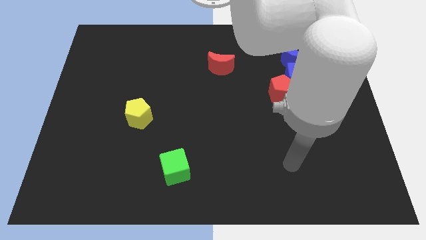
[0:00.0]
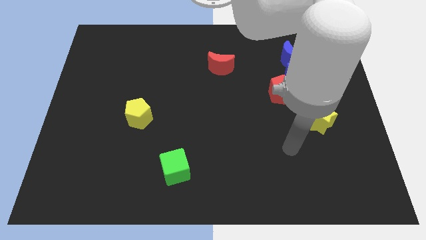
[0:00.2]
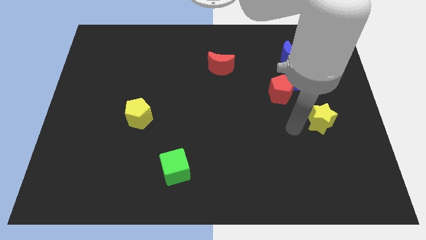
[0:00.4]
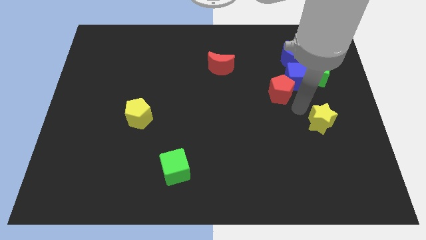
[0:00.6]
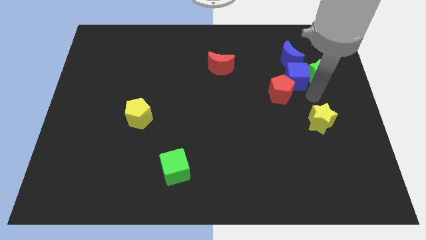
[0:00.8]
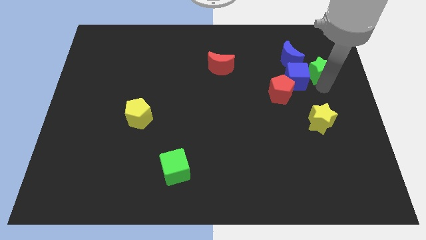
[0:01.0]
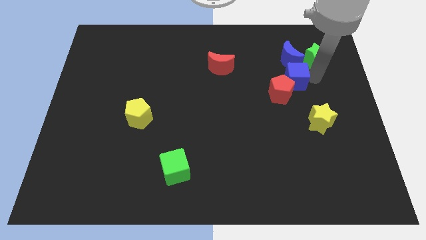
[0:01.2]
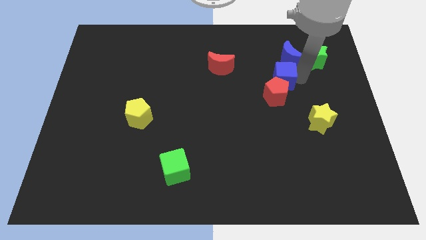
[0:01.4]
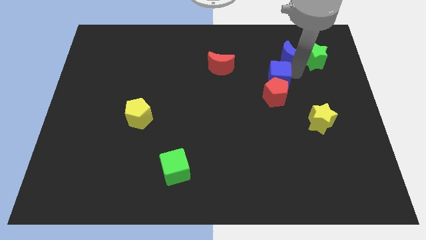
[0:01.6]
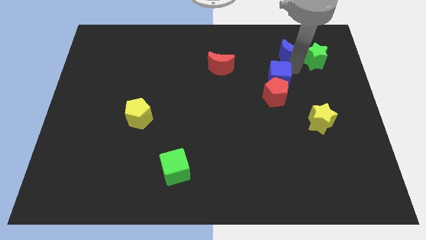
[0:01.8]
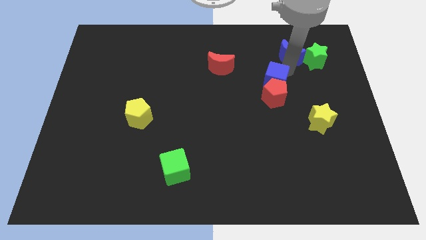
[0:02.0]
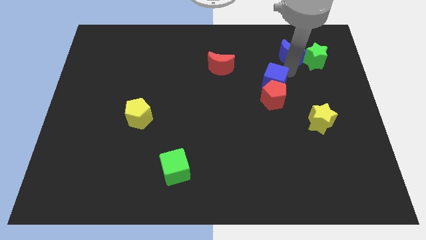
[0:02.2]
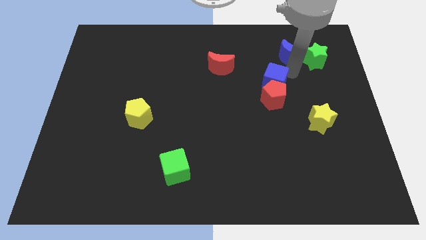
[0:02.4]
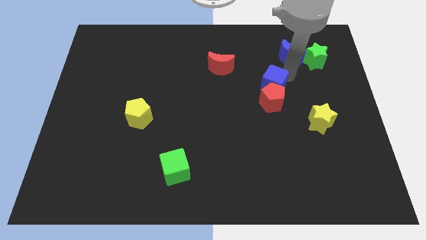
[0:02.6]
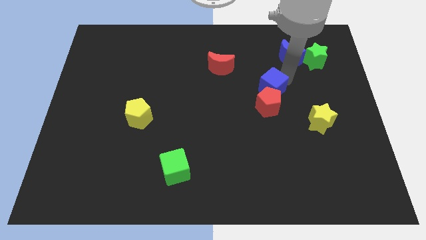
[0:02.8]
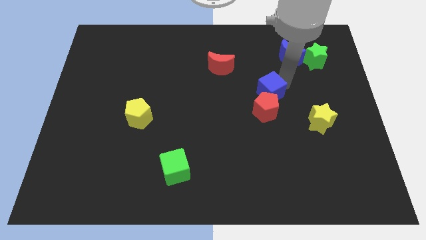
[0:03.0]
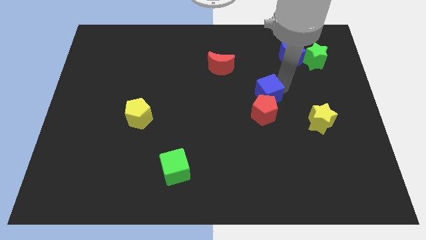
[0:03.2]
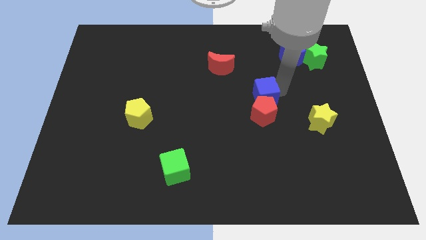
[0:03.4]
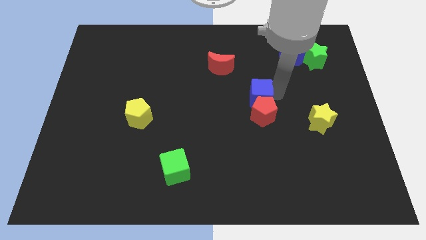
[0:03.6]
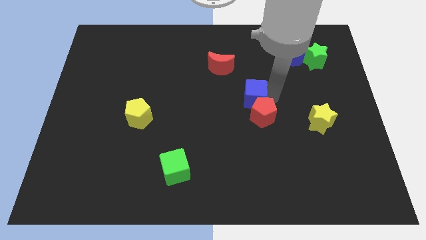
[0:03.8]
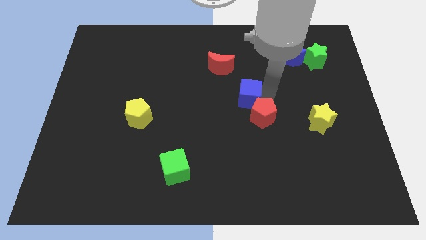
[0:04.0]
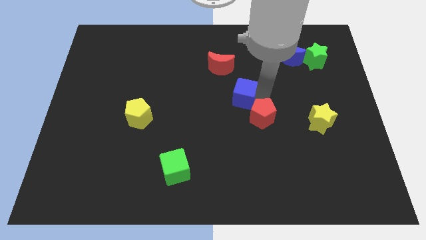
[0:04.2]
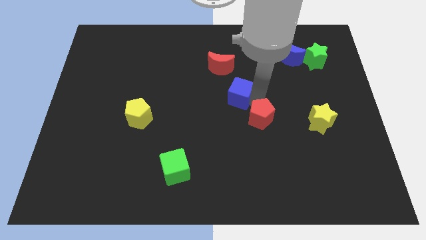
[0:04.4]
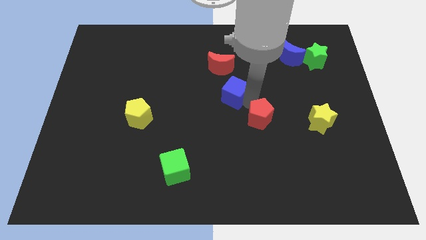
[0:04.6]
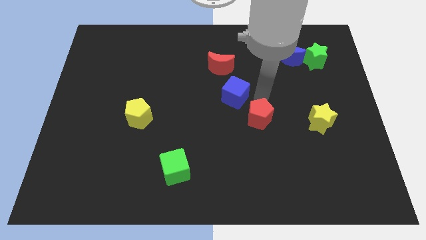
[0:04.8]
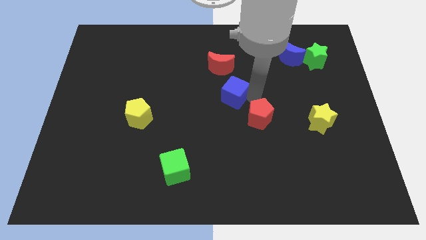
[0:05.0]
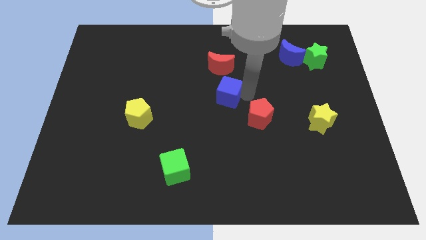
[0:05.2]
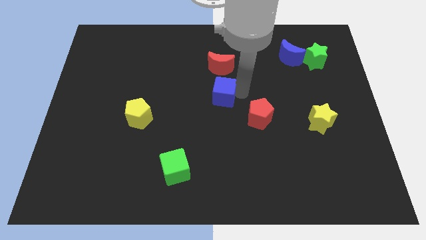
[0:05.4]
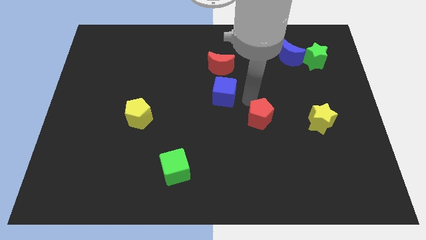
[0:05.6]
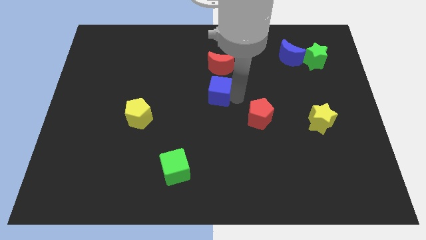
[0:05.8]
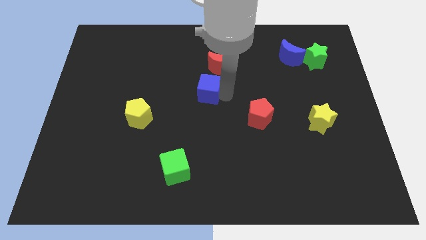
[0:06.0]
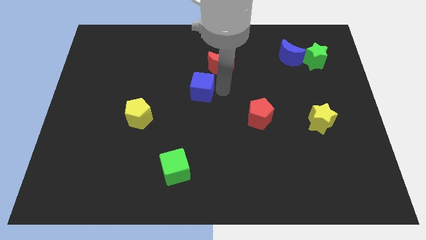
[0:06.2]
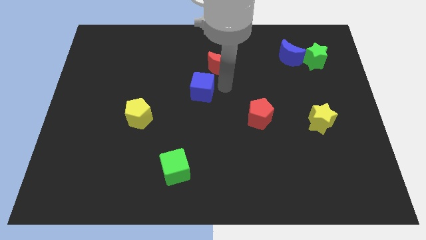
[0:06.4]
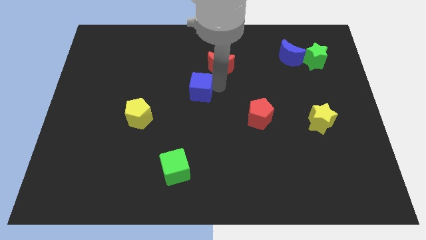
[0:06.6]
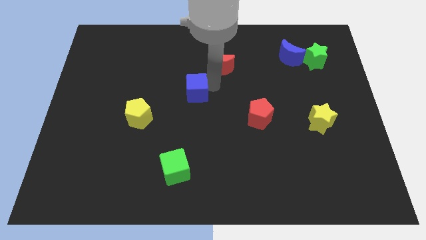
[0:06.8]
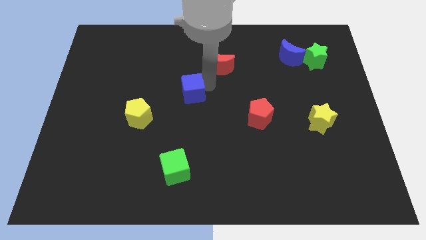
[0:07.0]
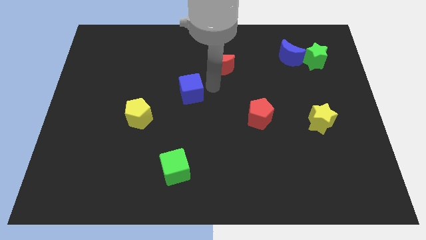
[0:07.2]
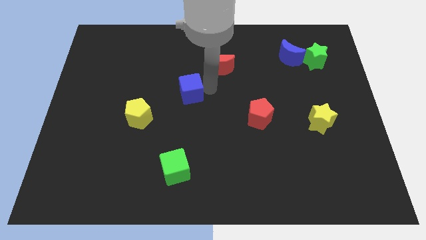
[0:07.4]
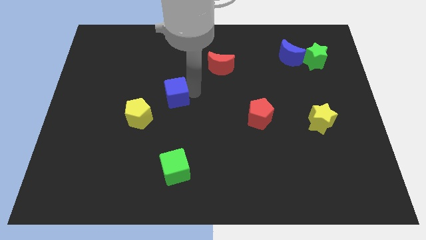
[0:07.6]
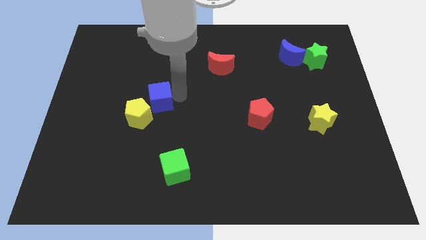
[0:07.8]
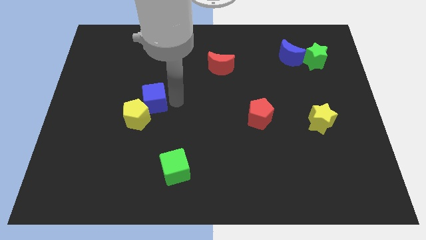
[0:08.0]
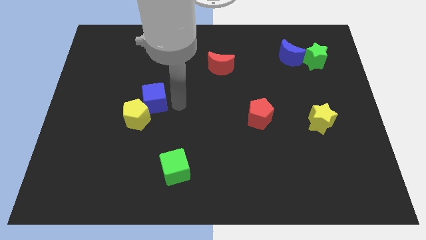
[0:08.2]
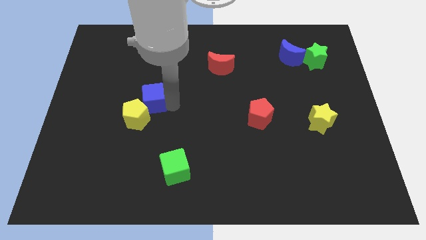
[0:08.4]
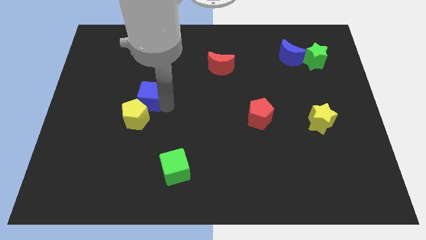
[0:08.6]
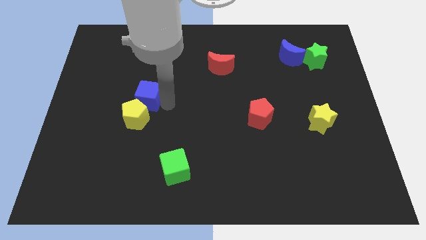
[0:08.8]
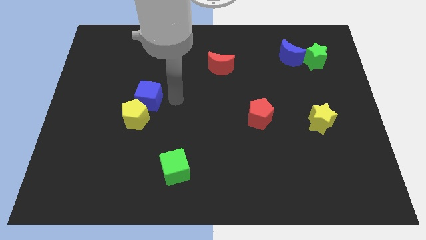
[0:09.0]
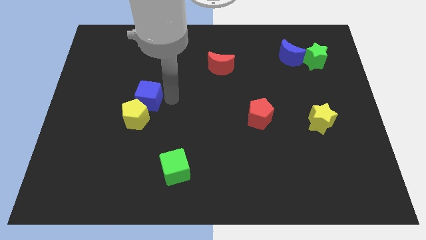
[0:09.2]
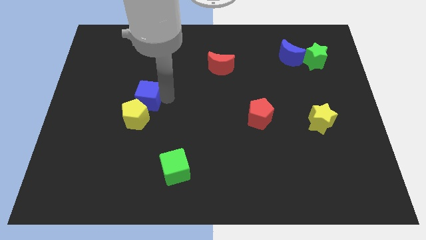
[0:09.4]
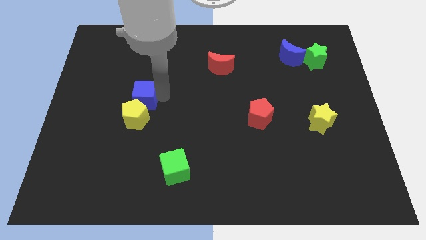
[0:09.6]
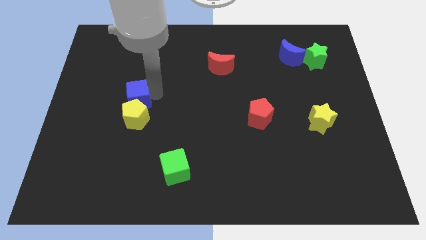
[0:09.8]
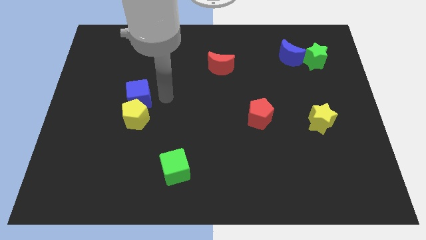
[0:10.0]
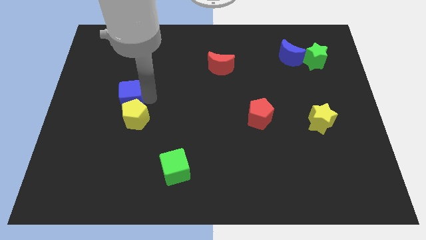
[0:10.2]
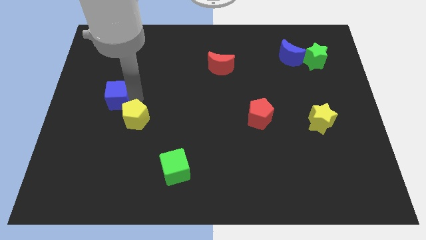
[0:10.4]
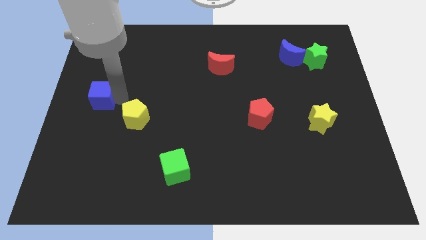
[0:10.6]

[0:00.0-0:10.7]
move the blue cube to the left side of the board

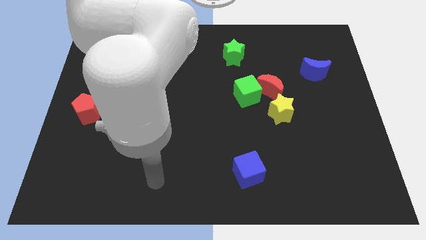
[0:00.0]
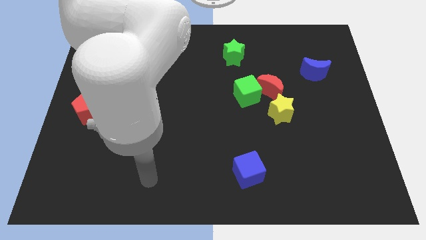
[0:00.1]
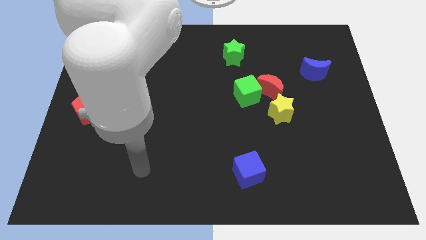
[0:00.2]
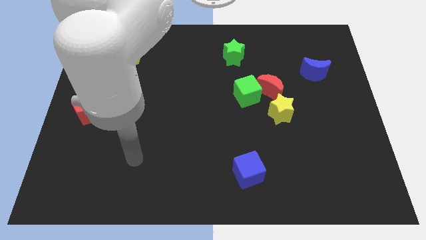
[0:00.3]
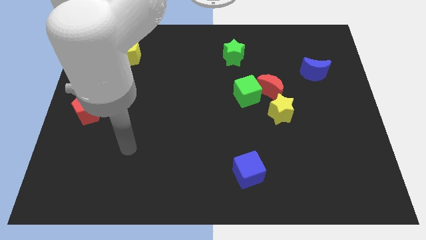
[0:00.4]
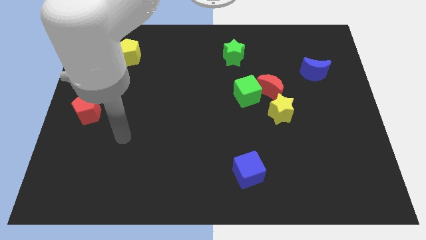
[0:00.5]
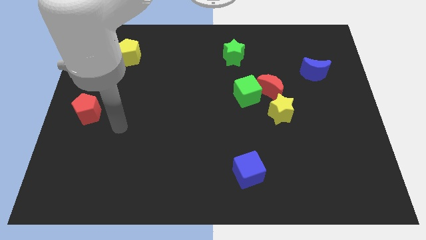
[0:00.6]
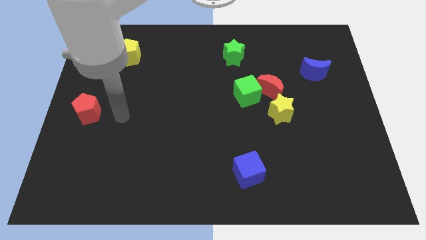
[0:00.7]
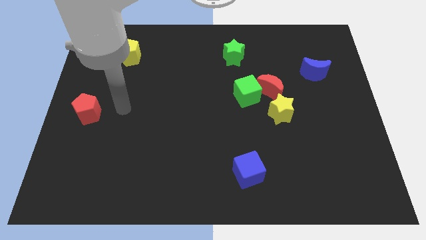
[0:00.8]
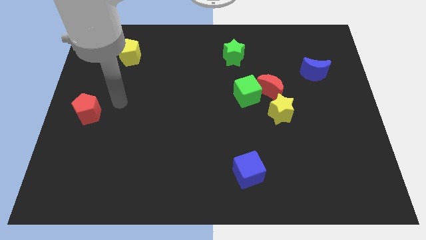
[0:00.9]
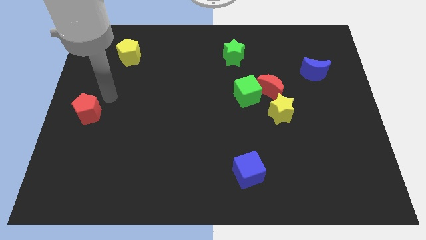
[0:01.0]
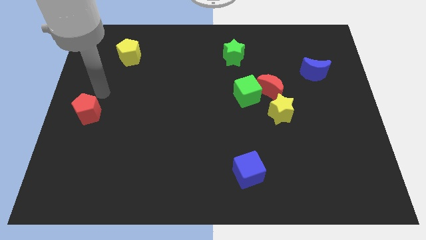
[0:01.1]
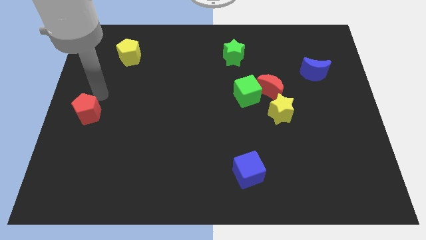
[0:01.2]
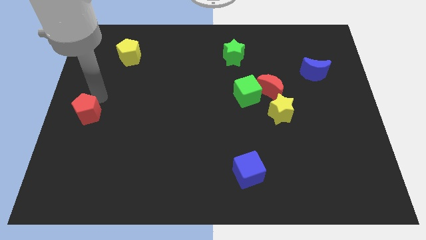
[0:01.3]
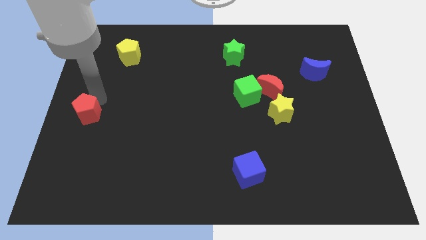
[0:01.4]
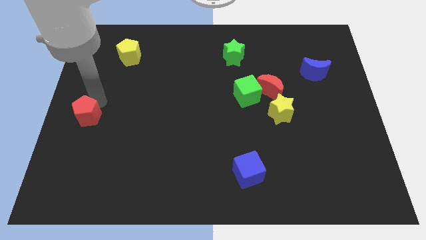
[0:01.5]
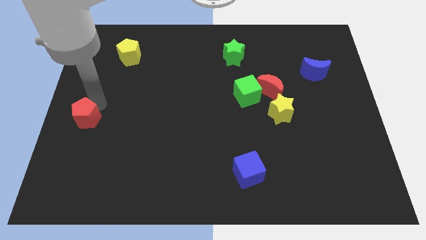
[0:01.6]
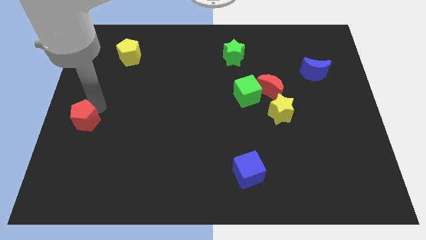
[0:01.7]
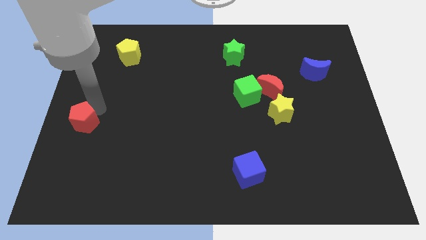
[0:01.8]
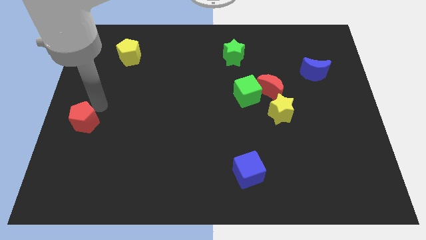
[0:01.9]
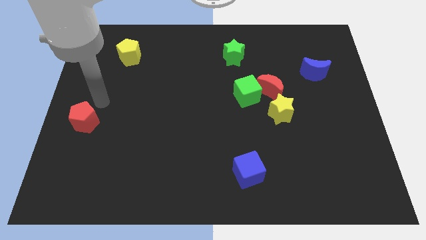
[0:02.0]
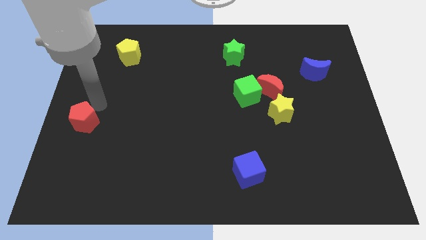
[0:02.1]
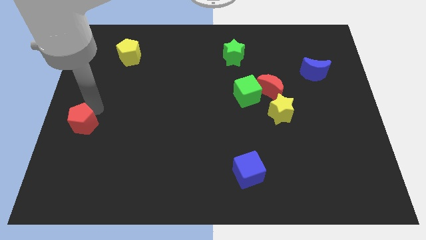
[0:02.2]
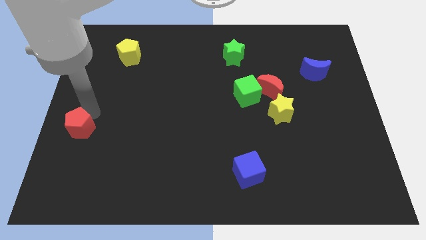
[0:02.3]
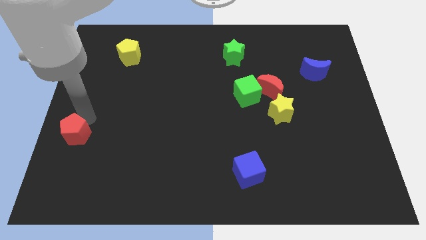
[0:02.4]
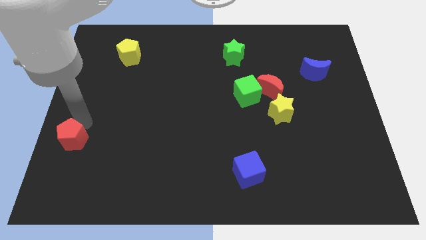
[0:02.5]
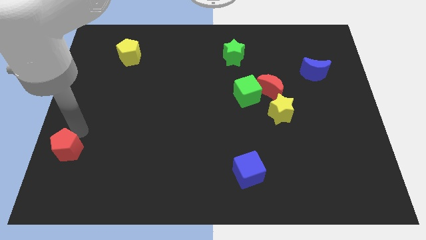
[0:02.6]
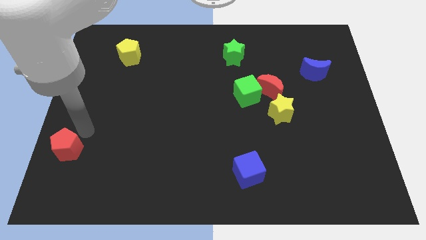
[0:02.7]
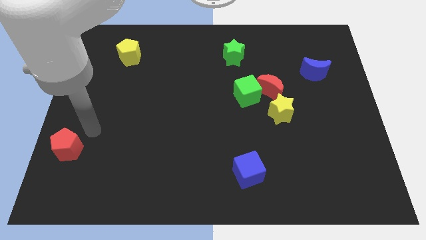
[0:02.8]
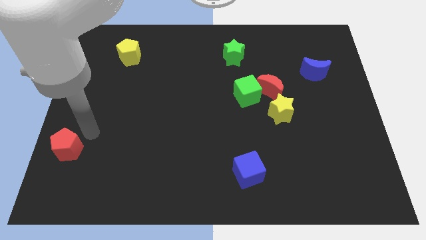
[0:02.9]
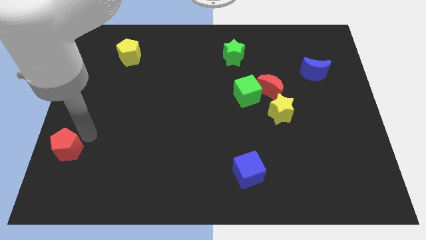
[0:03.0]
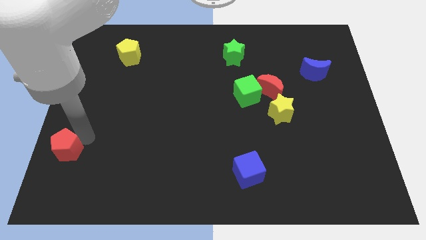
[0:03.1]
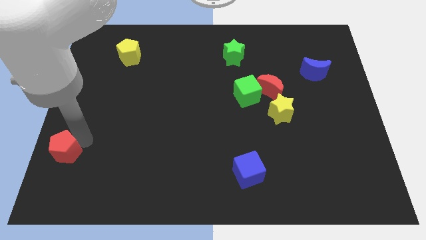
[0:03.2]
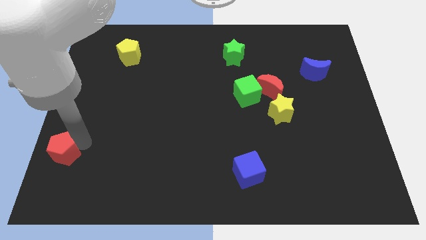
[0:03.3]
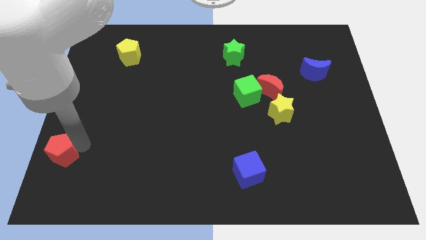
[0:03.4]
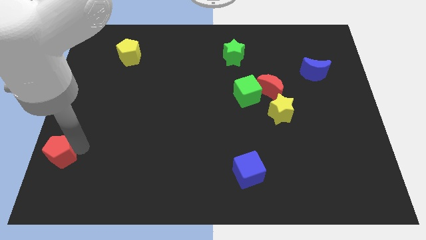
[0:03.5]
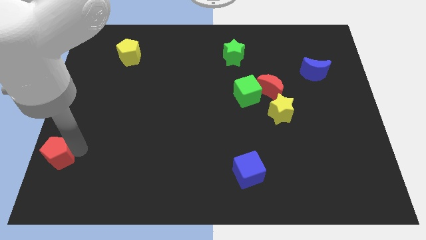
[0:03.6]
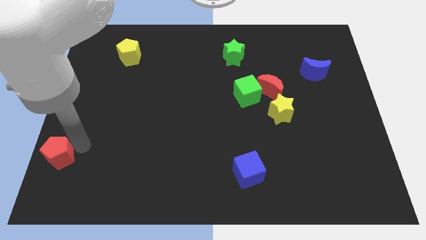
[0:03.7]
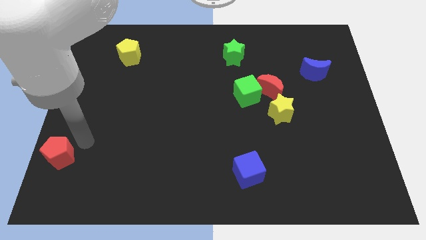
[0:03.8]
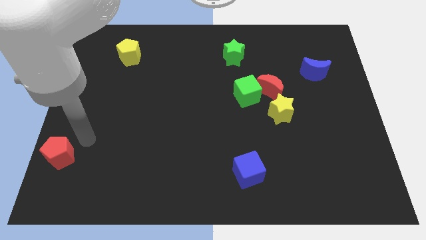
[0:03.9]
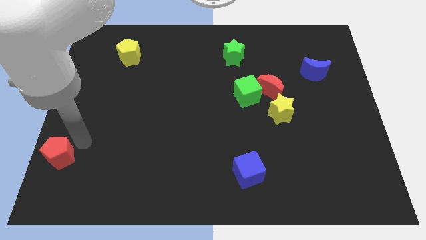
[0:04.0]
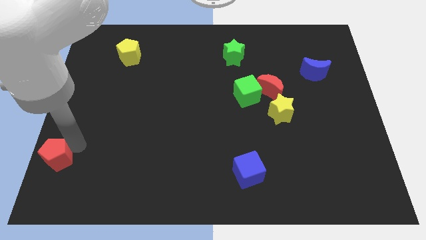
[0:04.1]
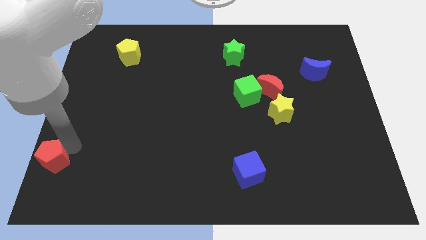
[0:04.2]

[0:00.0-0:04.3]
move the red pentagon to the bottom left
